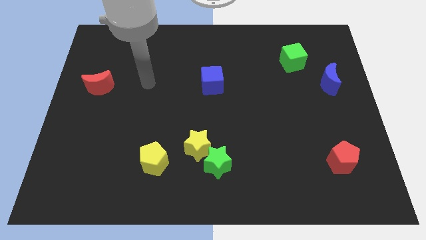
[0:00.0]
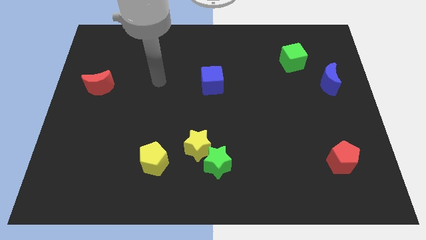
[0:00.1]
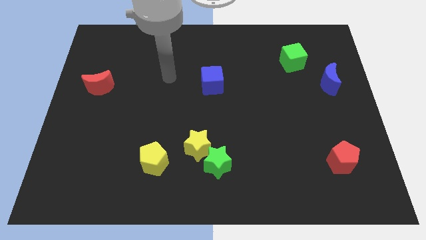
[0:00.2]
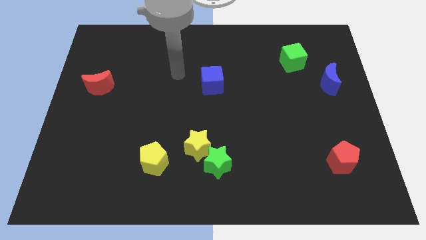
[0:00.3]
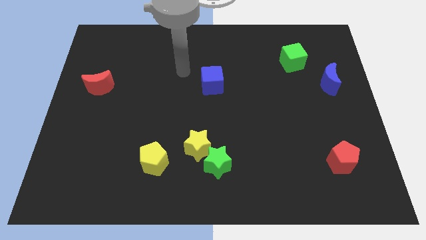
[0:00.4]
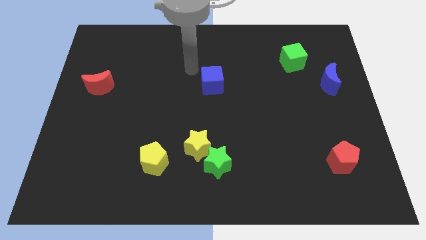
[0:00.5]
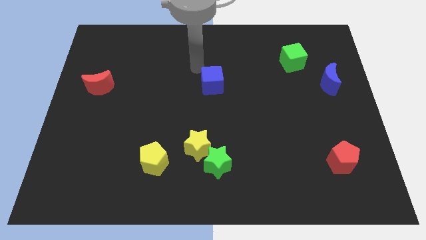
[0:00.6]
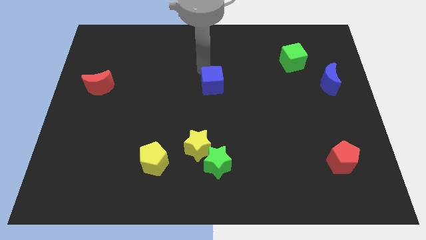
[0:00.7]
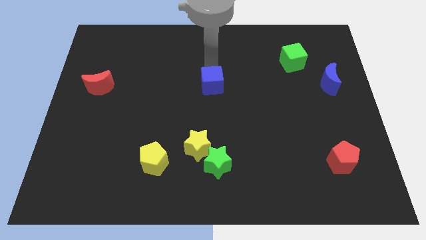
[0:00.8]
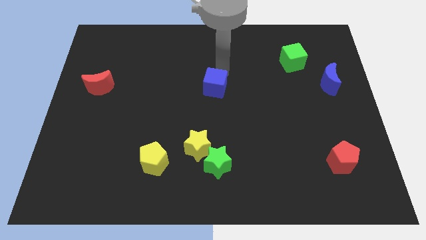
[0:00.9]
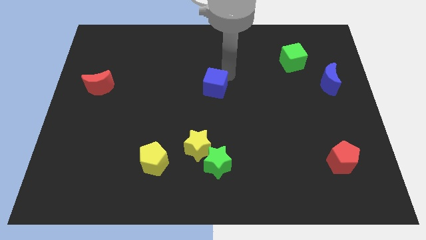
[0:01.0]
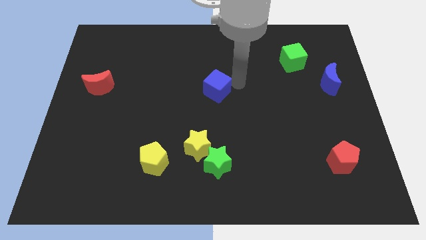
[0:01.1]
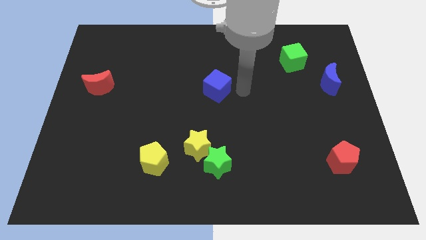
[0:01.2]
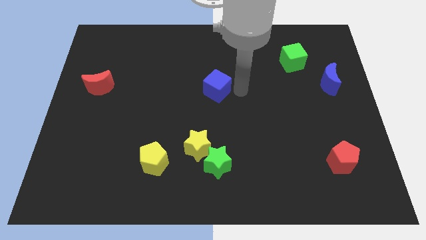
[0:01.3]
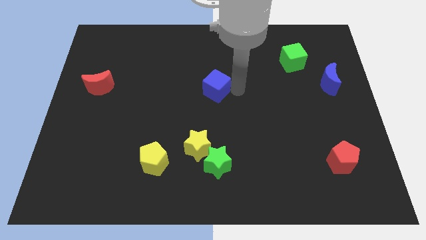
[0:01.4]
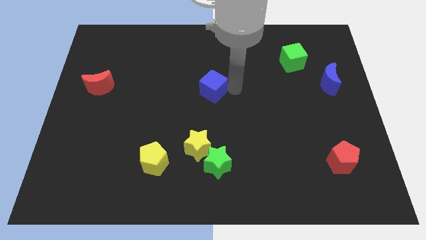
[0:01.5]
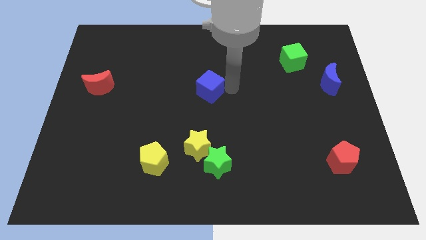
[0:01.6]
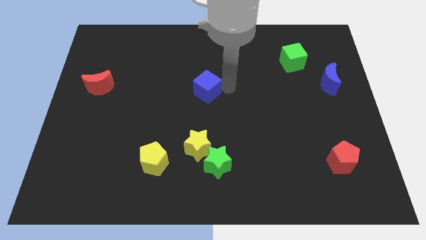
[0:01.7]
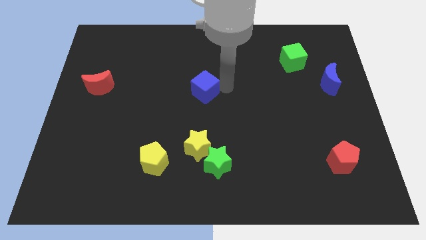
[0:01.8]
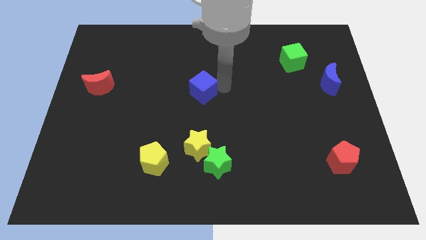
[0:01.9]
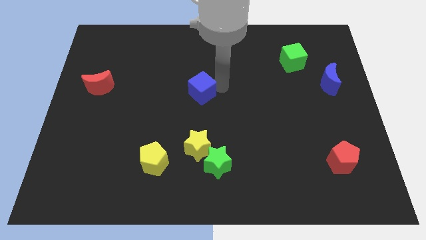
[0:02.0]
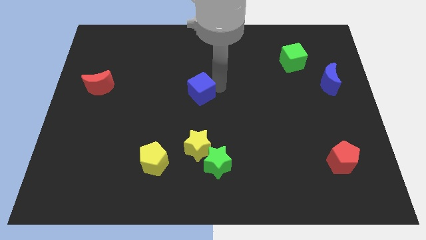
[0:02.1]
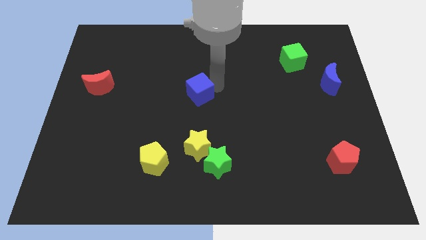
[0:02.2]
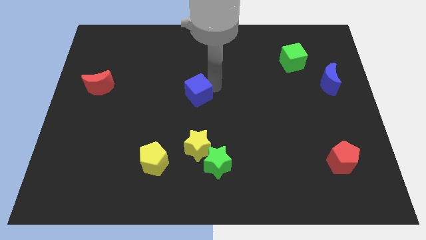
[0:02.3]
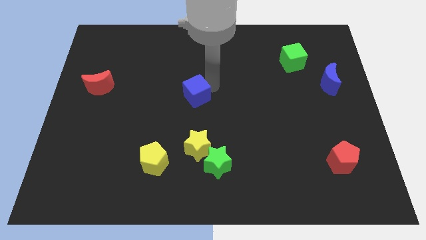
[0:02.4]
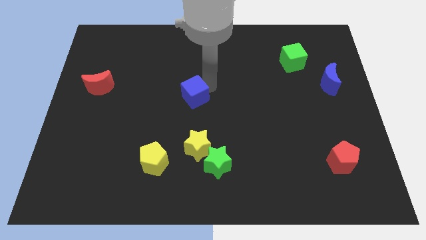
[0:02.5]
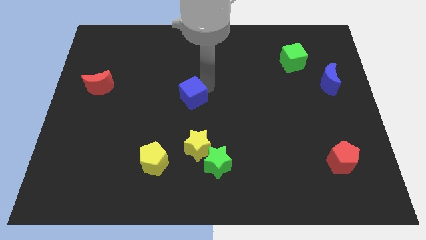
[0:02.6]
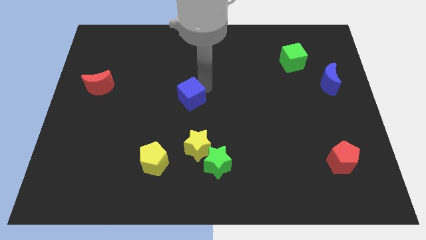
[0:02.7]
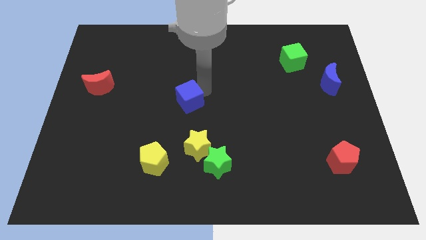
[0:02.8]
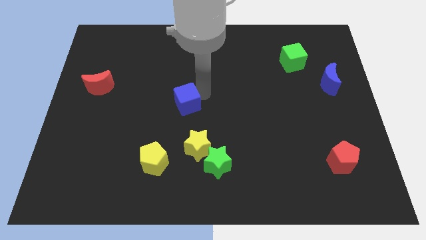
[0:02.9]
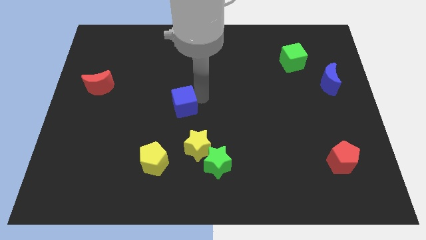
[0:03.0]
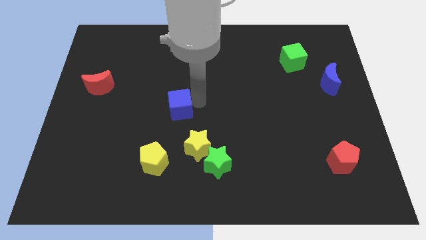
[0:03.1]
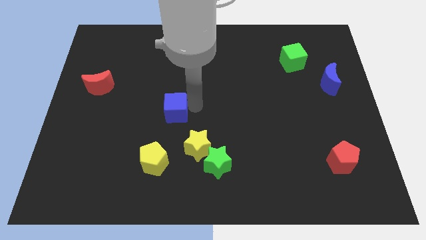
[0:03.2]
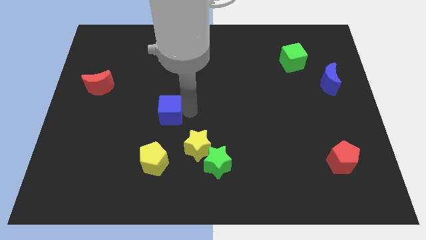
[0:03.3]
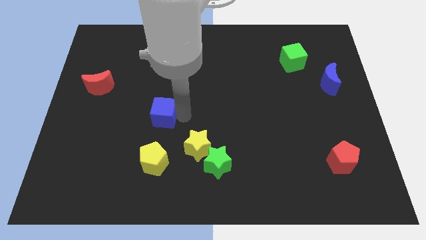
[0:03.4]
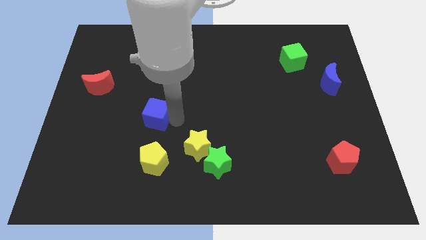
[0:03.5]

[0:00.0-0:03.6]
push the blue cube a little to the left

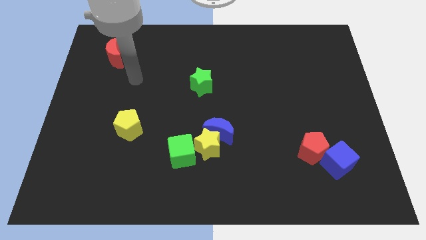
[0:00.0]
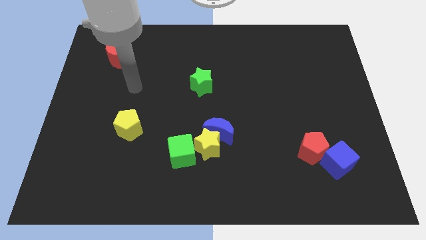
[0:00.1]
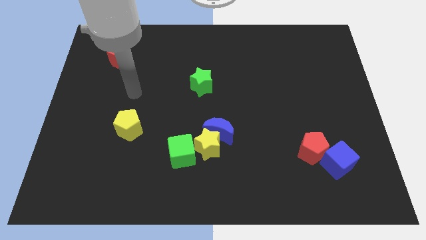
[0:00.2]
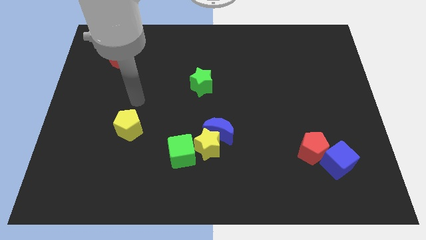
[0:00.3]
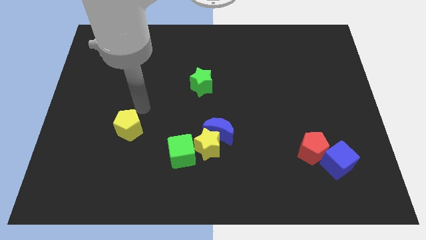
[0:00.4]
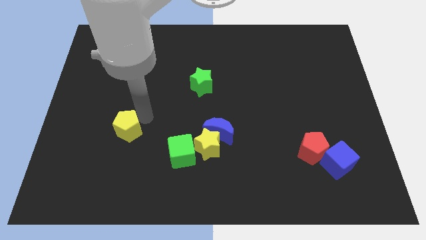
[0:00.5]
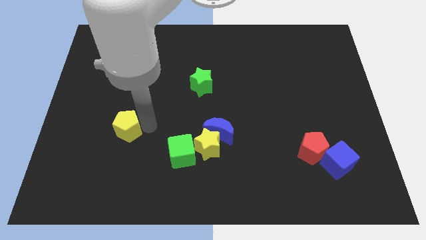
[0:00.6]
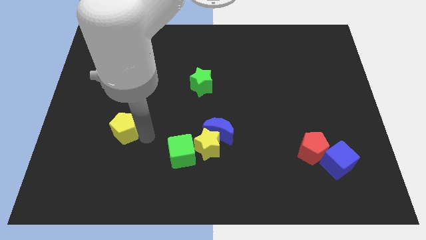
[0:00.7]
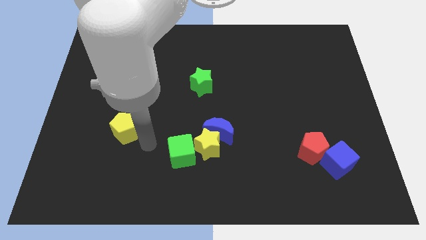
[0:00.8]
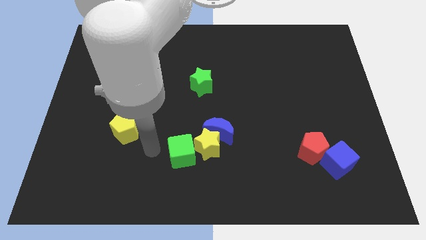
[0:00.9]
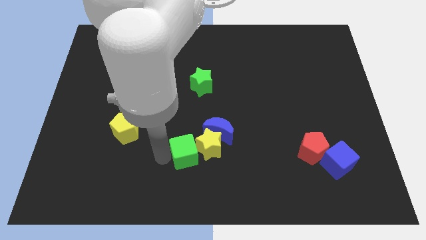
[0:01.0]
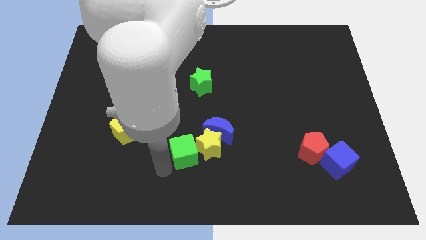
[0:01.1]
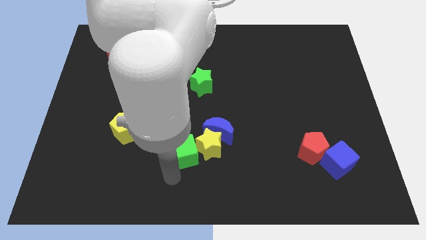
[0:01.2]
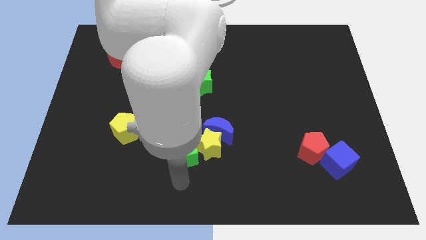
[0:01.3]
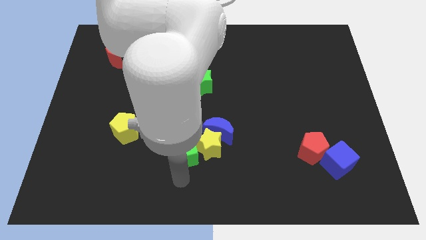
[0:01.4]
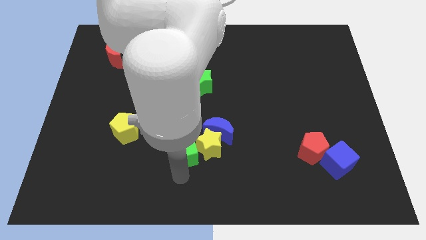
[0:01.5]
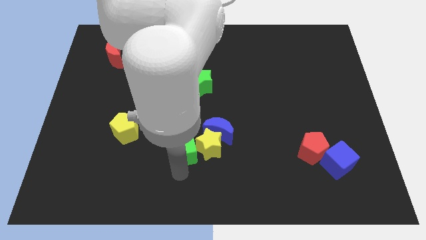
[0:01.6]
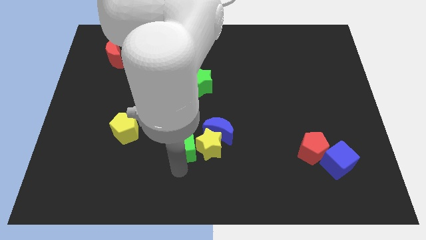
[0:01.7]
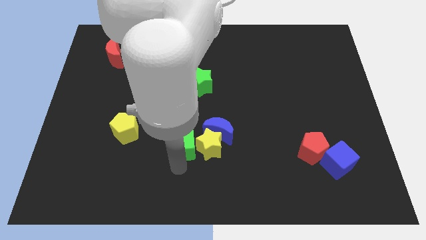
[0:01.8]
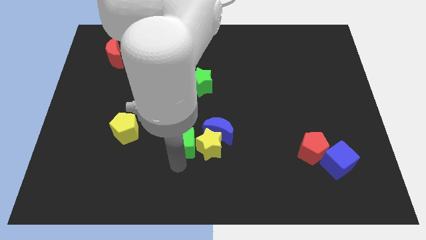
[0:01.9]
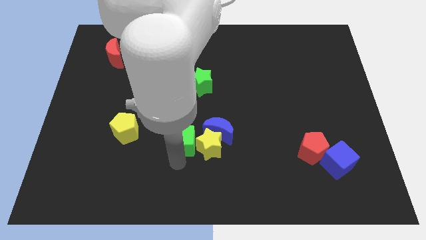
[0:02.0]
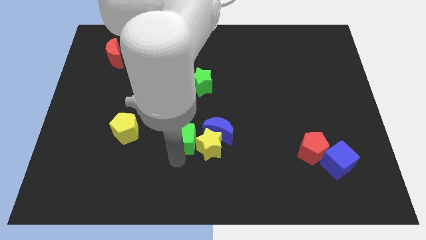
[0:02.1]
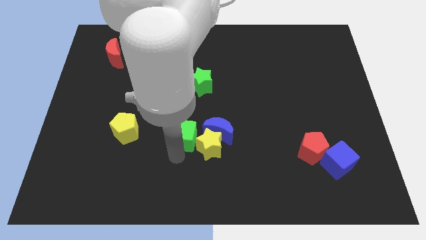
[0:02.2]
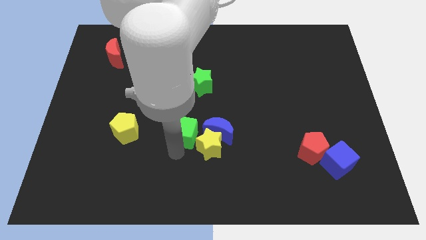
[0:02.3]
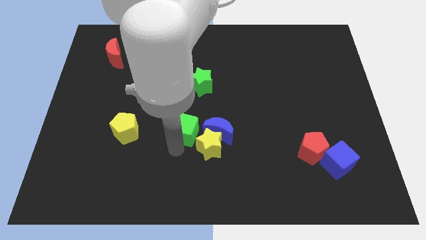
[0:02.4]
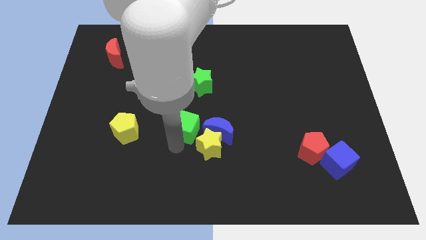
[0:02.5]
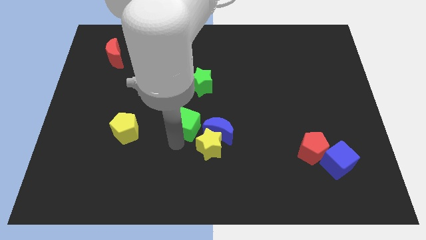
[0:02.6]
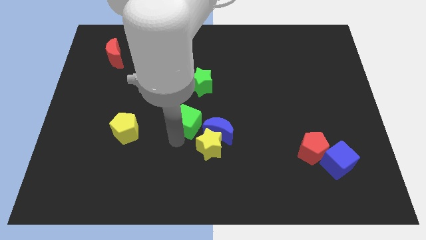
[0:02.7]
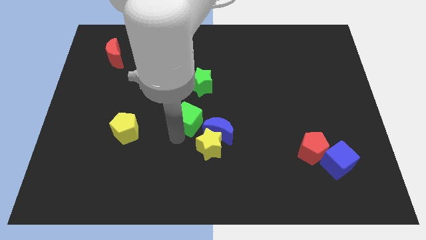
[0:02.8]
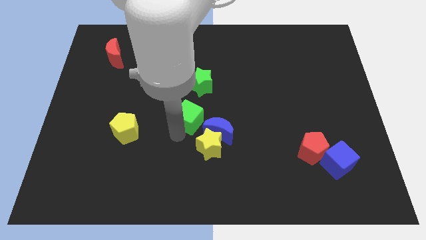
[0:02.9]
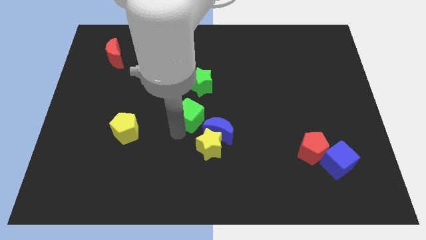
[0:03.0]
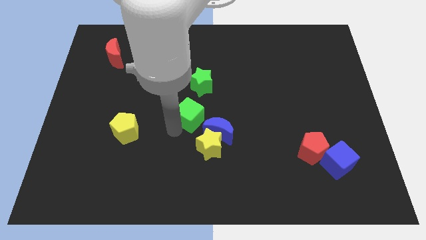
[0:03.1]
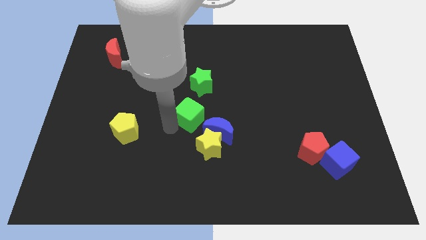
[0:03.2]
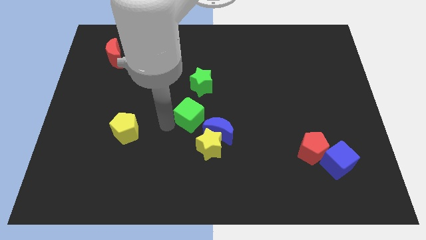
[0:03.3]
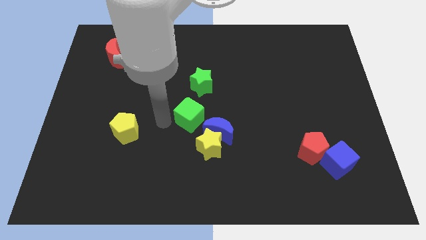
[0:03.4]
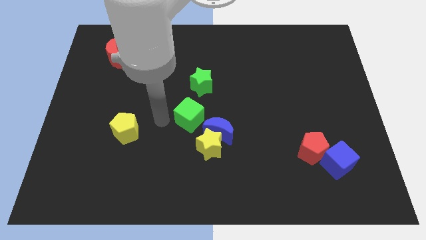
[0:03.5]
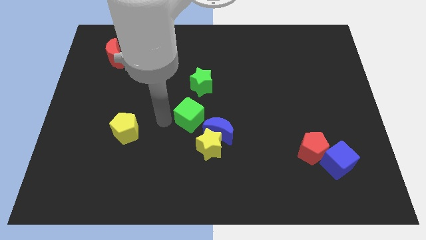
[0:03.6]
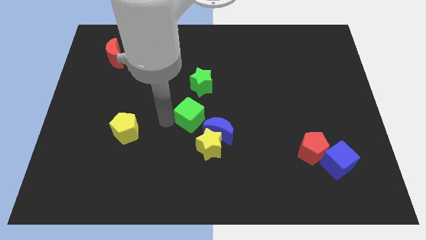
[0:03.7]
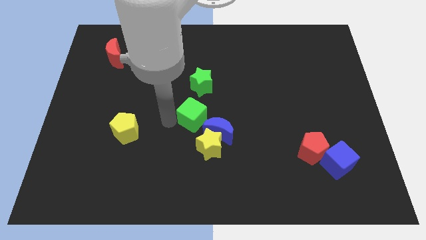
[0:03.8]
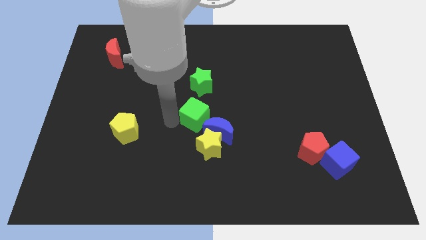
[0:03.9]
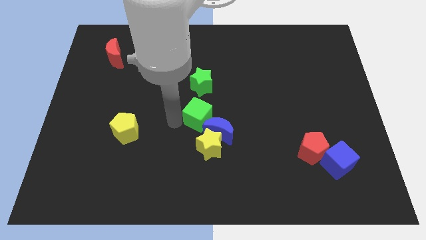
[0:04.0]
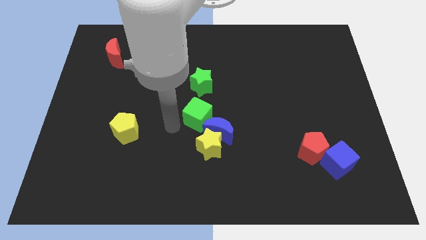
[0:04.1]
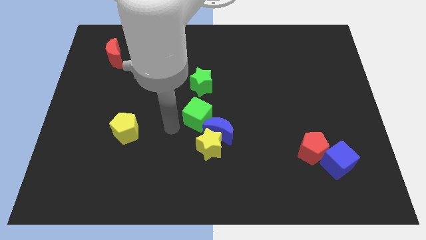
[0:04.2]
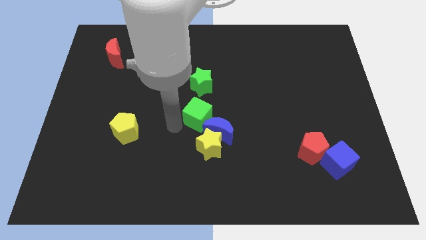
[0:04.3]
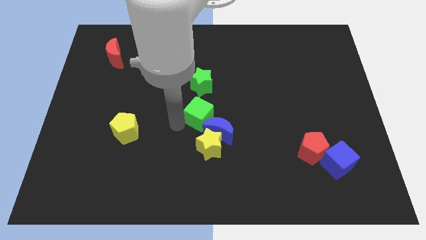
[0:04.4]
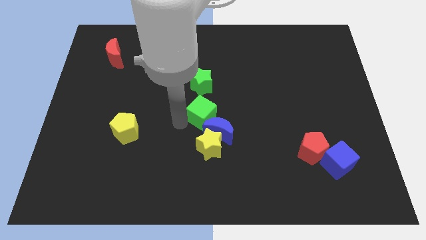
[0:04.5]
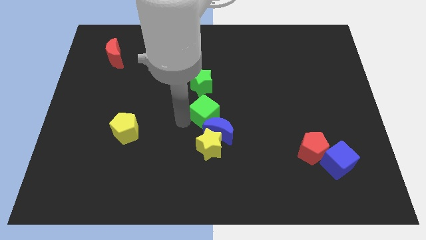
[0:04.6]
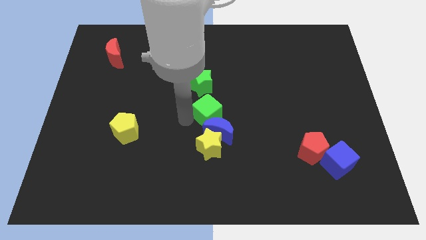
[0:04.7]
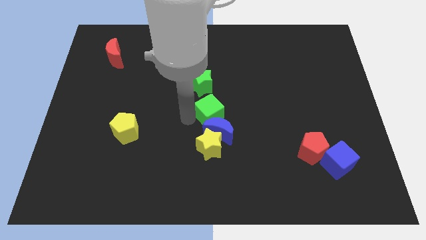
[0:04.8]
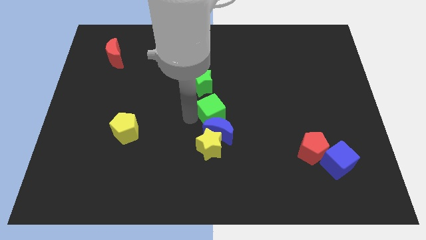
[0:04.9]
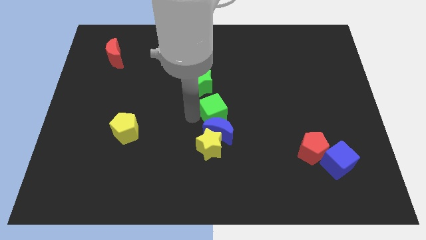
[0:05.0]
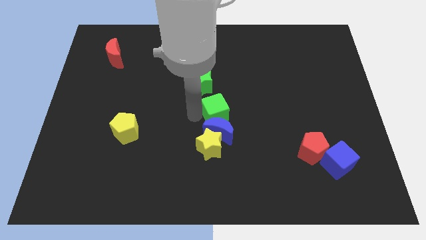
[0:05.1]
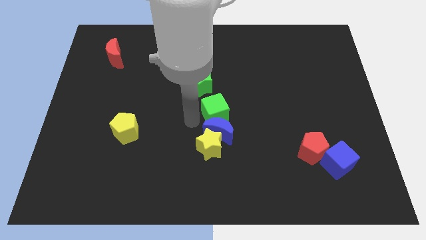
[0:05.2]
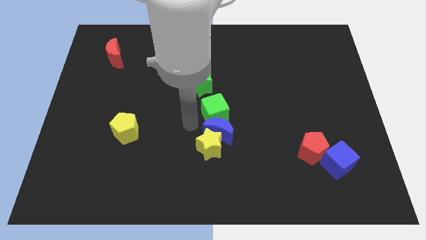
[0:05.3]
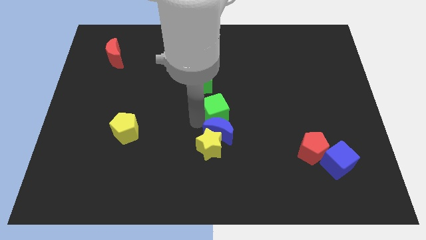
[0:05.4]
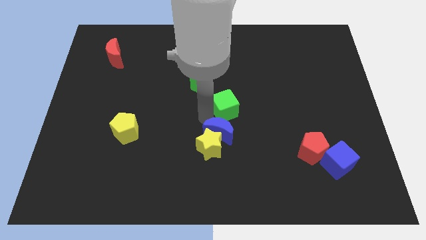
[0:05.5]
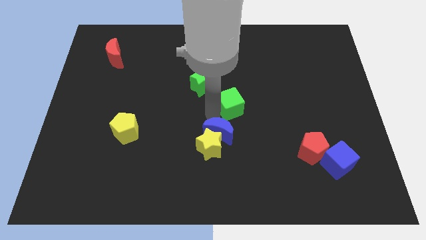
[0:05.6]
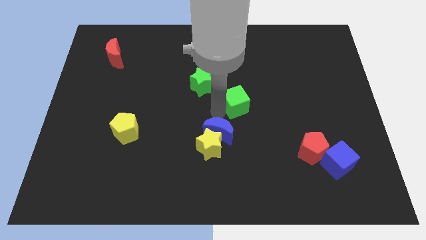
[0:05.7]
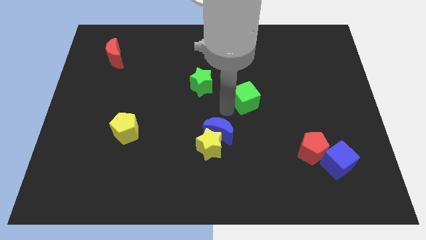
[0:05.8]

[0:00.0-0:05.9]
slide the green cube upwards and then to the right
